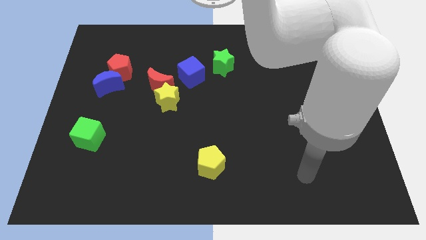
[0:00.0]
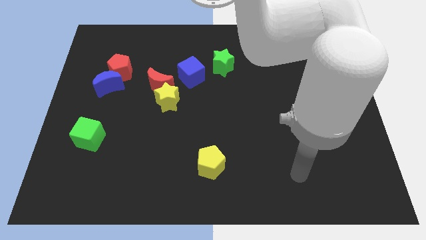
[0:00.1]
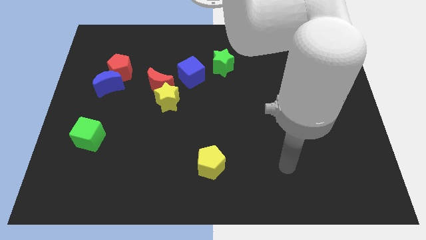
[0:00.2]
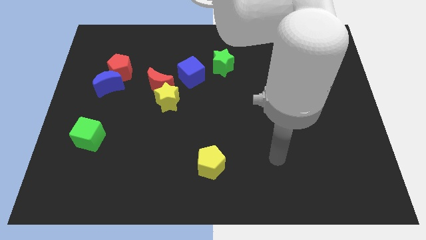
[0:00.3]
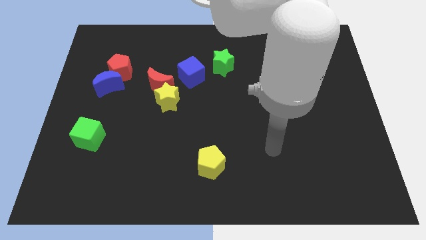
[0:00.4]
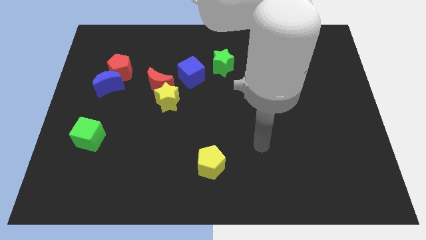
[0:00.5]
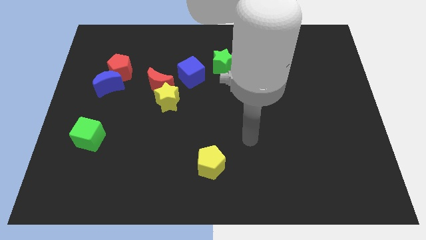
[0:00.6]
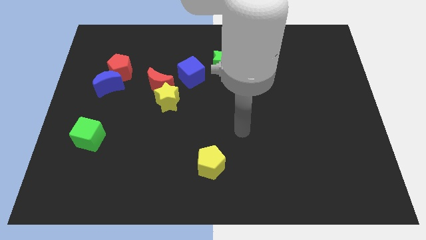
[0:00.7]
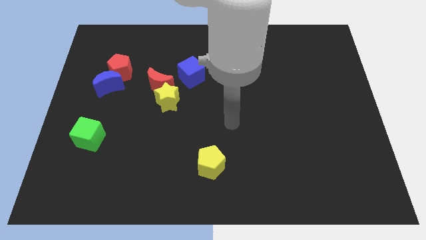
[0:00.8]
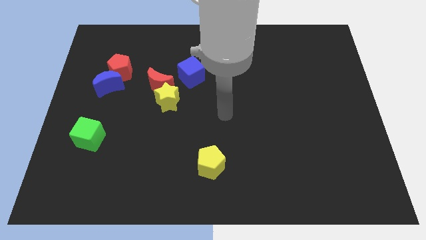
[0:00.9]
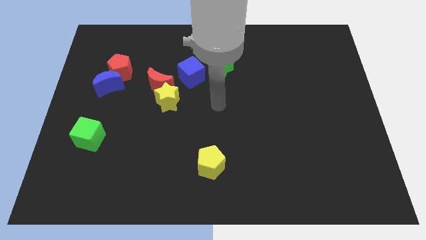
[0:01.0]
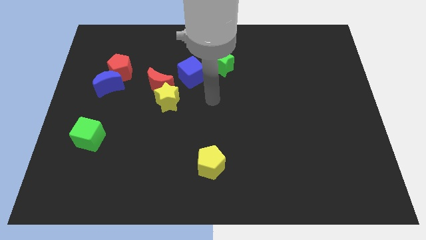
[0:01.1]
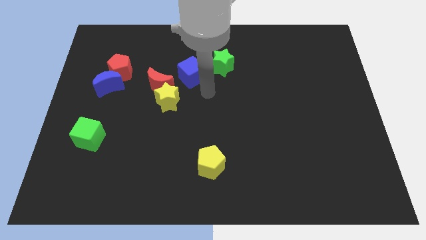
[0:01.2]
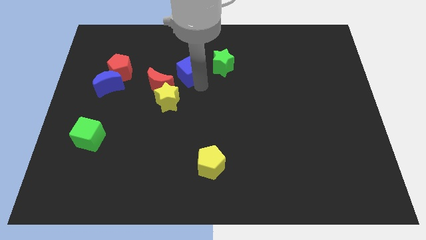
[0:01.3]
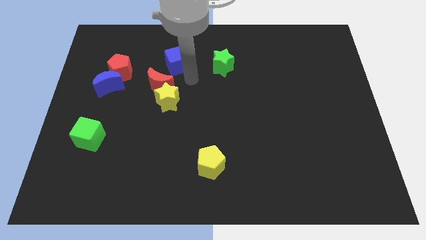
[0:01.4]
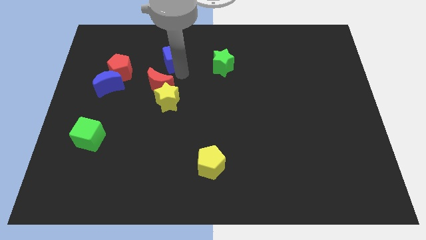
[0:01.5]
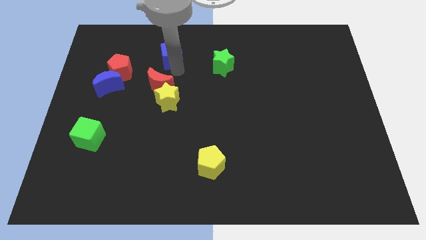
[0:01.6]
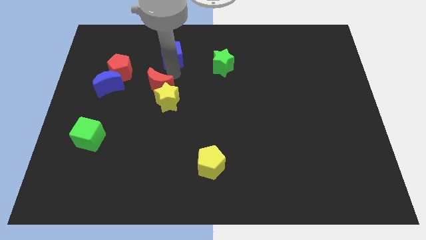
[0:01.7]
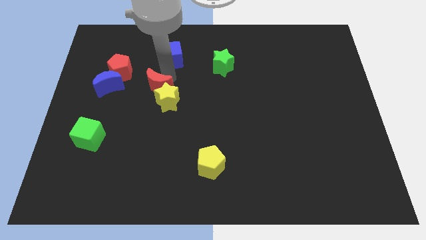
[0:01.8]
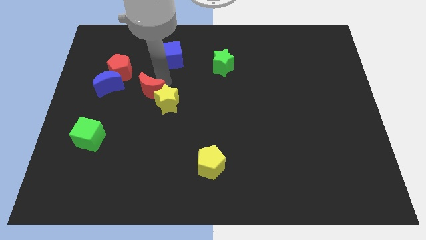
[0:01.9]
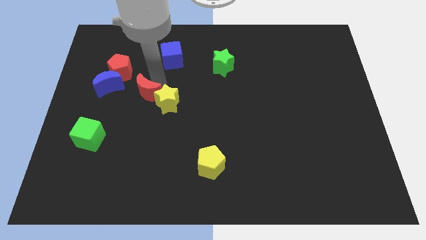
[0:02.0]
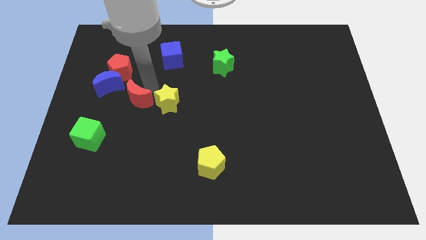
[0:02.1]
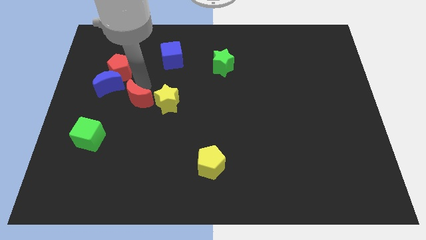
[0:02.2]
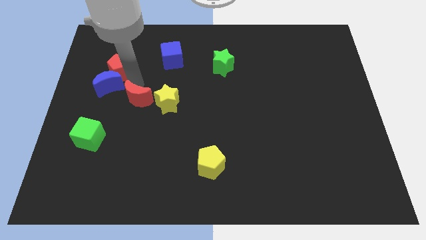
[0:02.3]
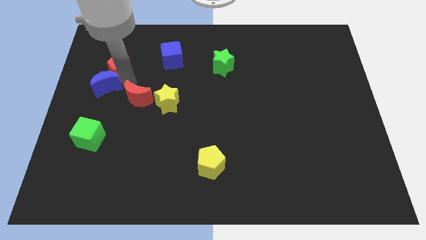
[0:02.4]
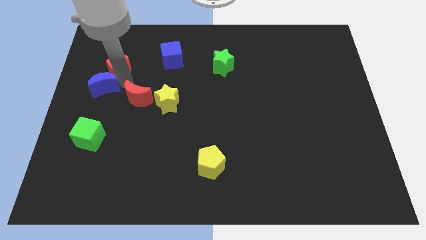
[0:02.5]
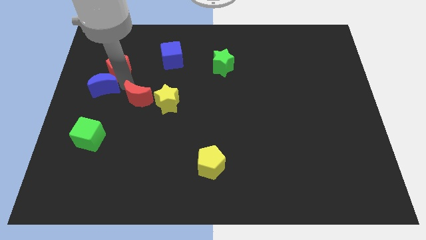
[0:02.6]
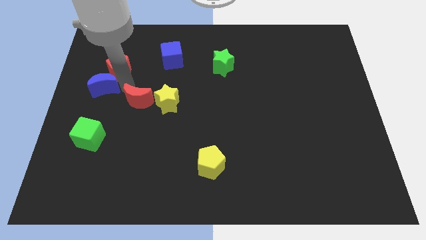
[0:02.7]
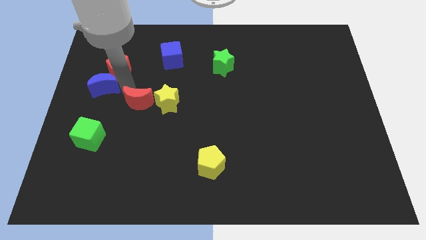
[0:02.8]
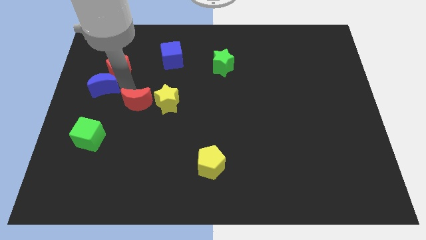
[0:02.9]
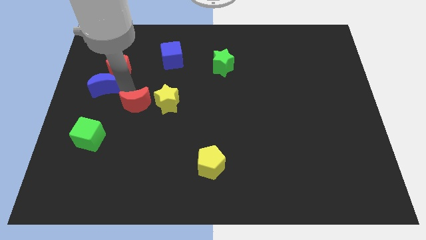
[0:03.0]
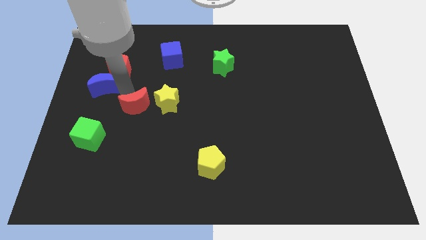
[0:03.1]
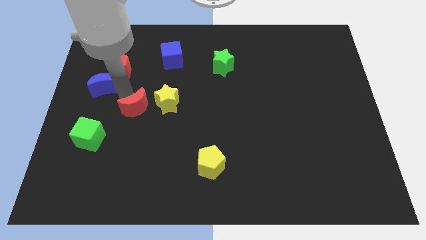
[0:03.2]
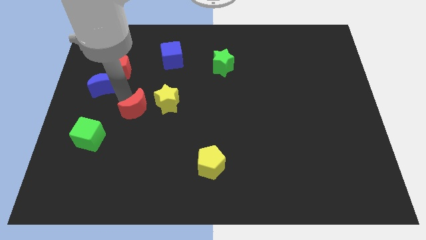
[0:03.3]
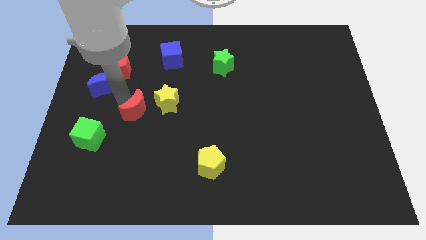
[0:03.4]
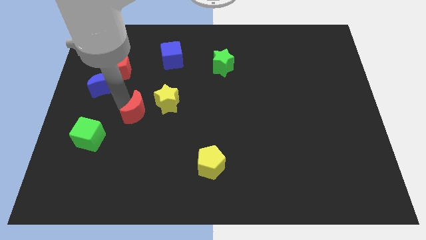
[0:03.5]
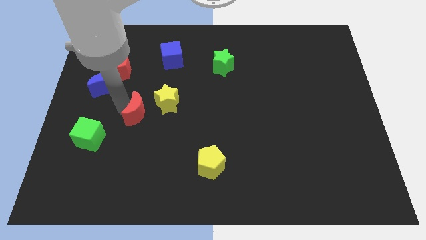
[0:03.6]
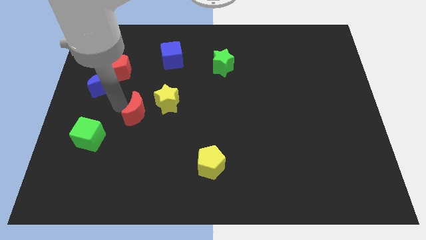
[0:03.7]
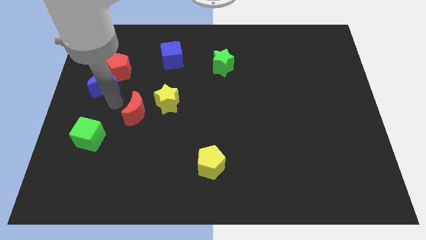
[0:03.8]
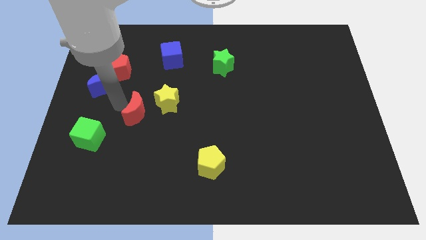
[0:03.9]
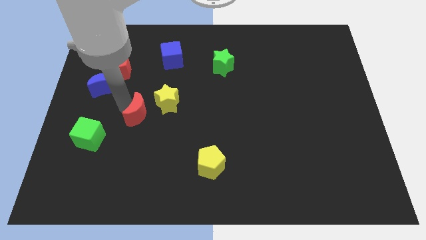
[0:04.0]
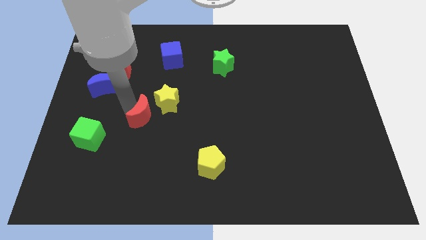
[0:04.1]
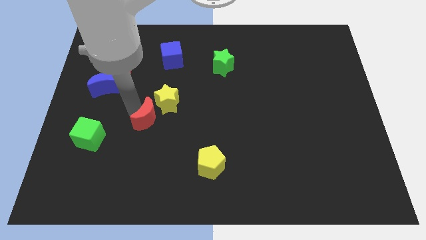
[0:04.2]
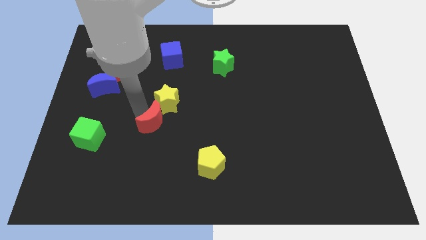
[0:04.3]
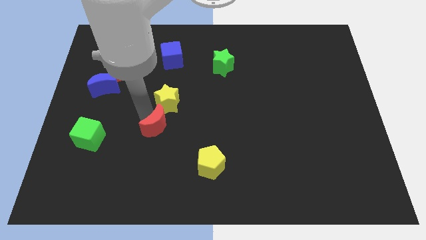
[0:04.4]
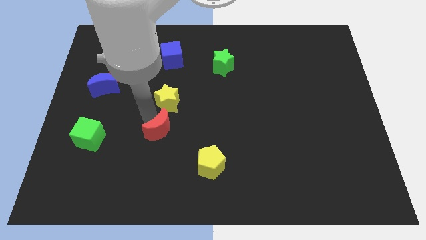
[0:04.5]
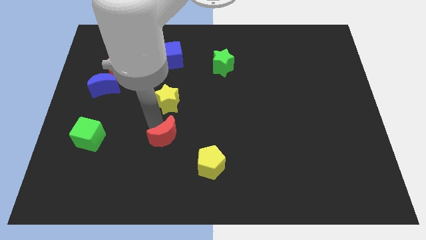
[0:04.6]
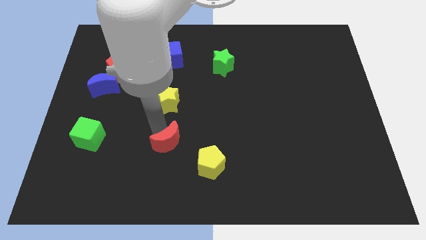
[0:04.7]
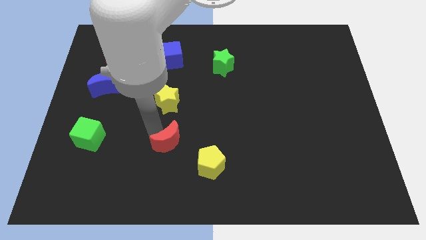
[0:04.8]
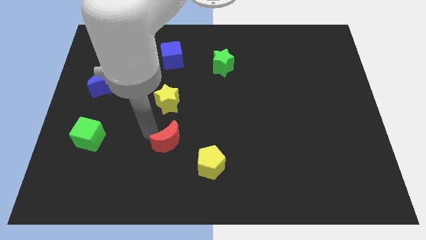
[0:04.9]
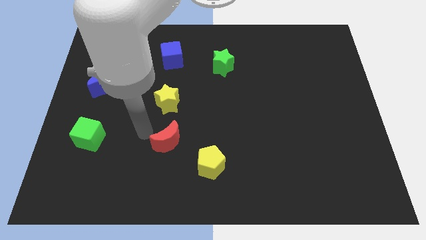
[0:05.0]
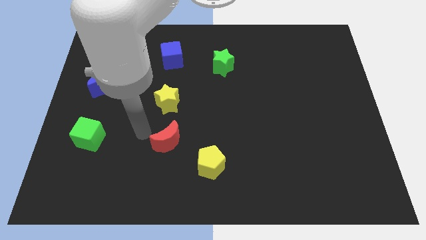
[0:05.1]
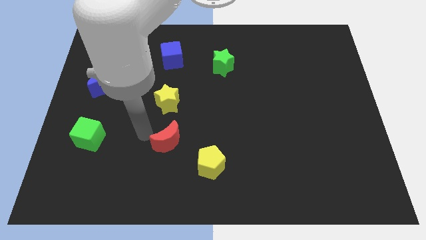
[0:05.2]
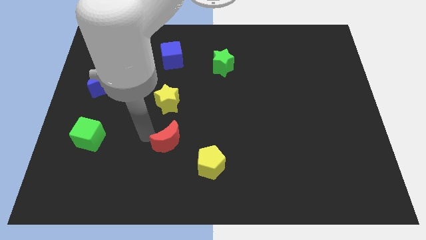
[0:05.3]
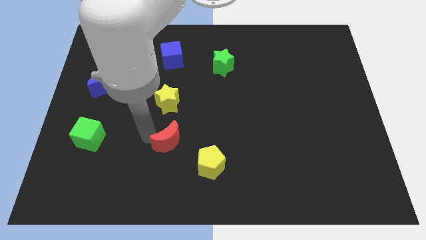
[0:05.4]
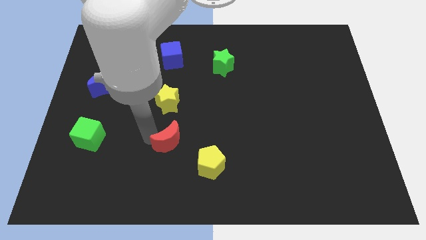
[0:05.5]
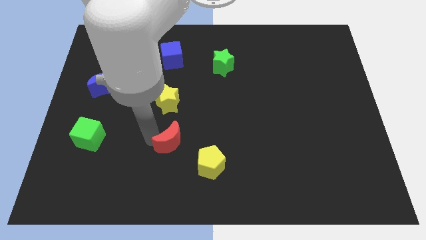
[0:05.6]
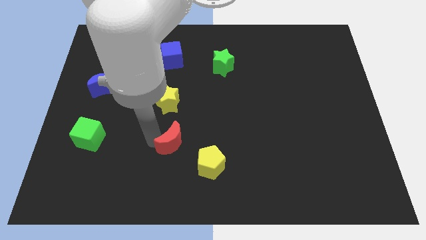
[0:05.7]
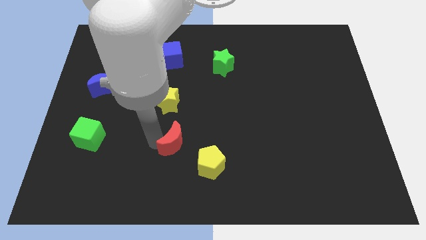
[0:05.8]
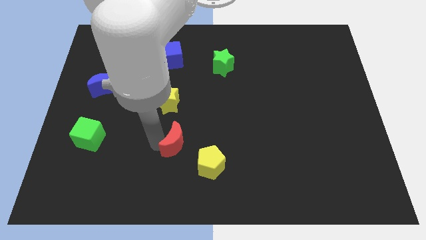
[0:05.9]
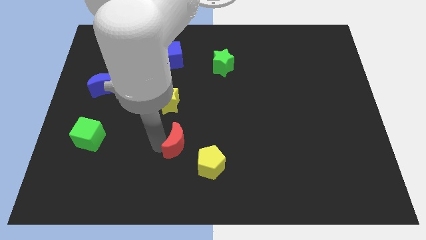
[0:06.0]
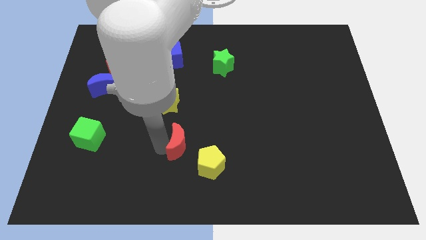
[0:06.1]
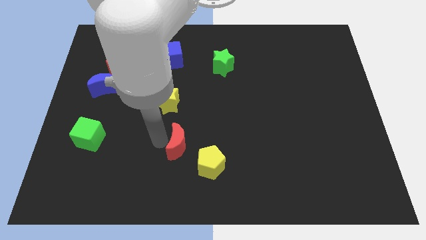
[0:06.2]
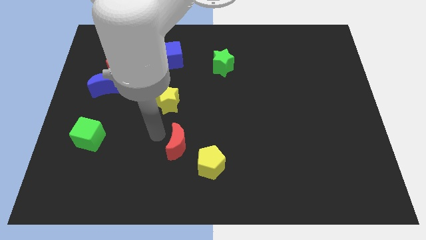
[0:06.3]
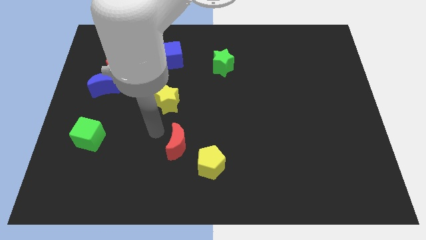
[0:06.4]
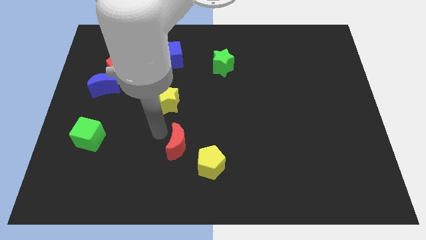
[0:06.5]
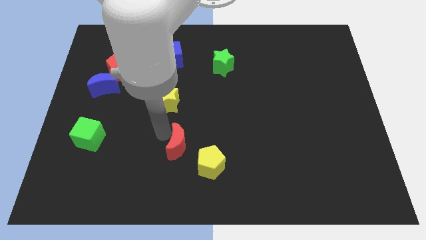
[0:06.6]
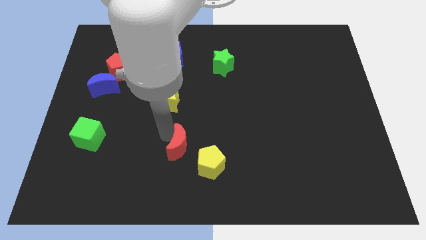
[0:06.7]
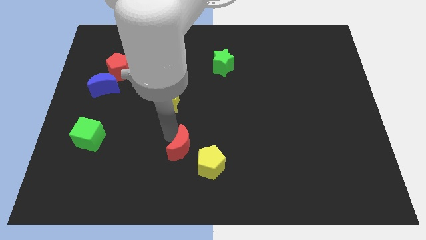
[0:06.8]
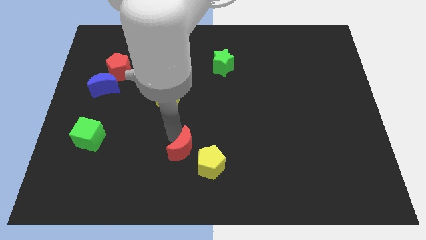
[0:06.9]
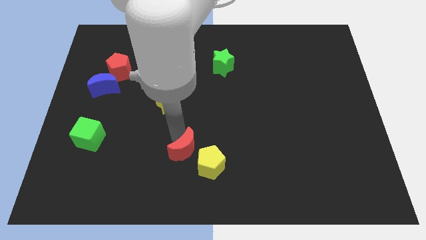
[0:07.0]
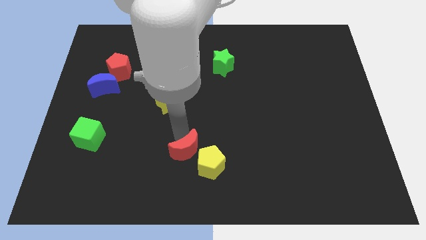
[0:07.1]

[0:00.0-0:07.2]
push the red moon to the yellow pentagon

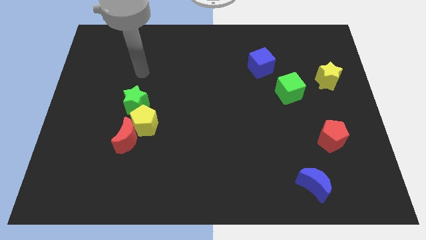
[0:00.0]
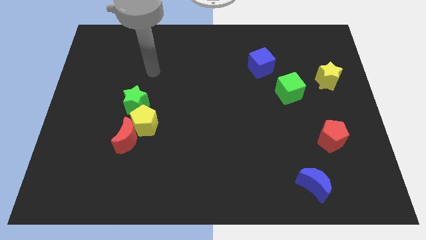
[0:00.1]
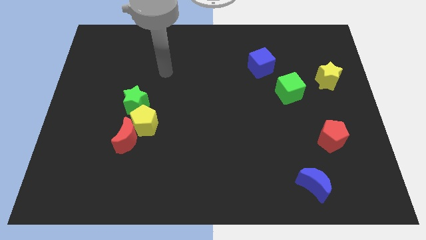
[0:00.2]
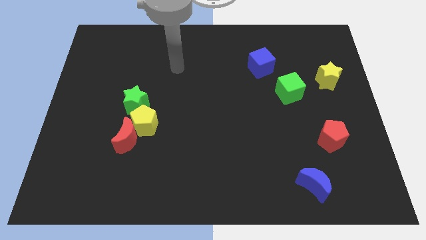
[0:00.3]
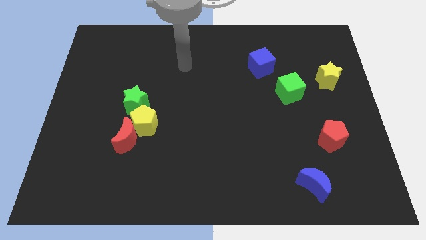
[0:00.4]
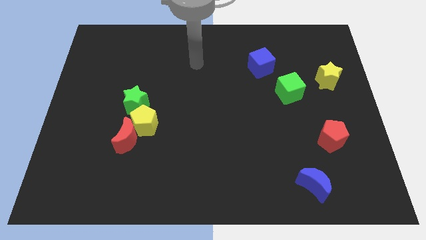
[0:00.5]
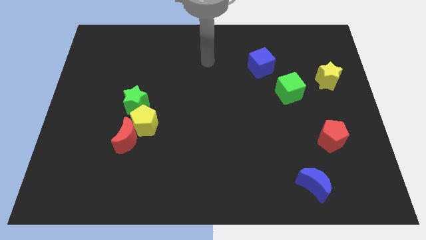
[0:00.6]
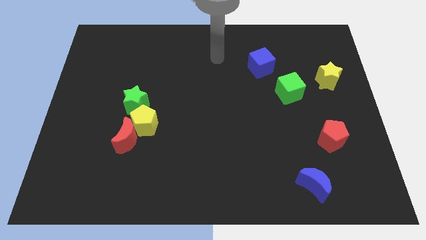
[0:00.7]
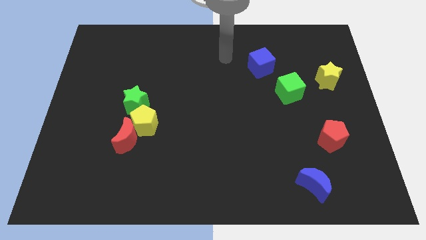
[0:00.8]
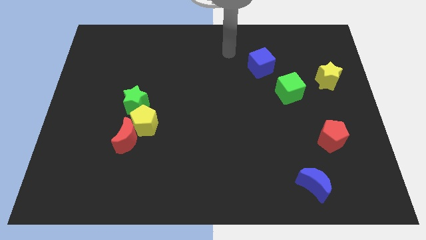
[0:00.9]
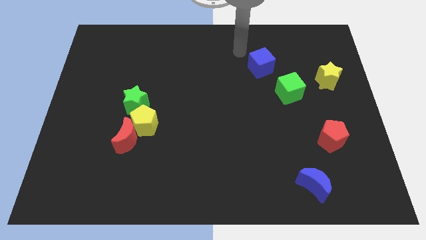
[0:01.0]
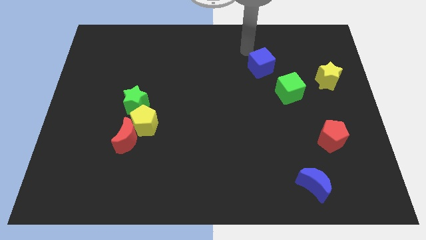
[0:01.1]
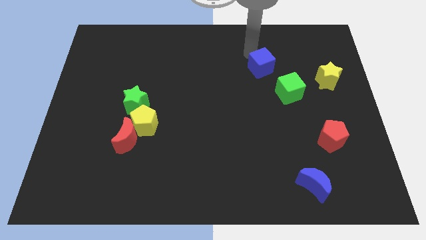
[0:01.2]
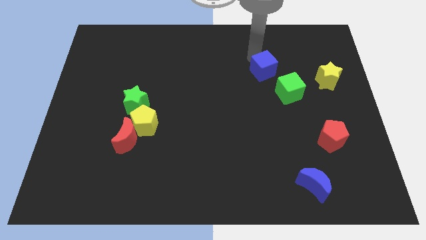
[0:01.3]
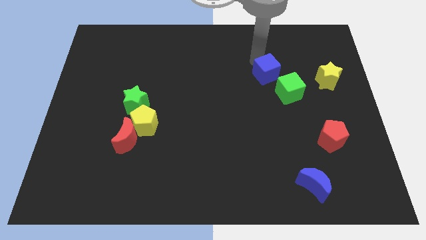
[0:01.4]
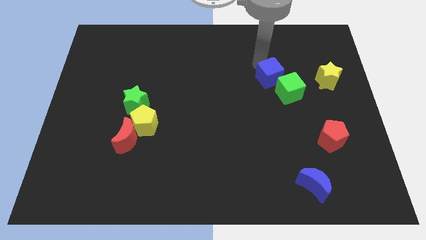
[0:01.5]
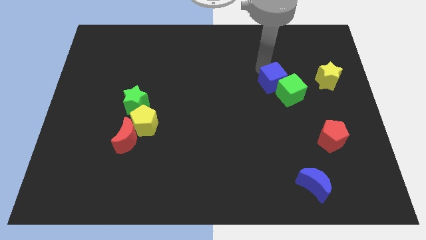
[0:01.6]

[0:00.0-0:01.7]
move the blue cube towards the green cube
